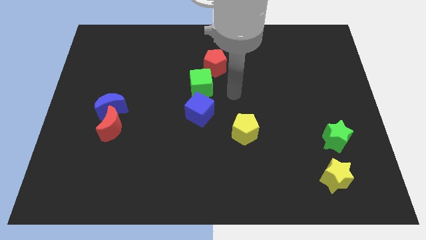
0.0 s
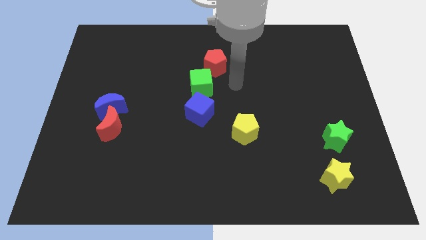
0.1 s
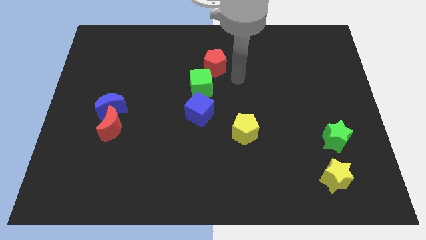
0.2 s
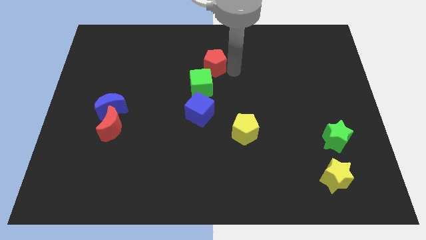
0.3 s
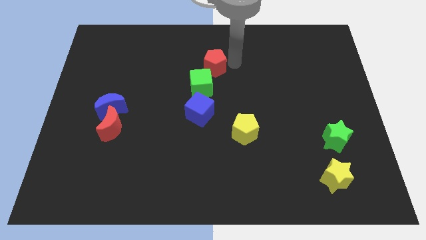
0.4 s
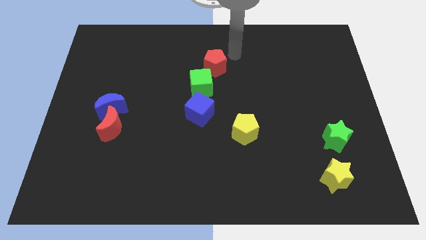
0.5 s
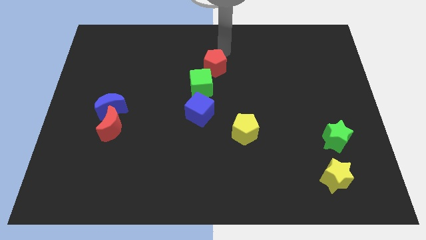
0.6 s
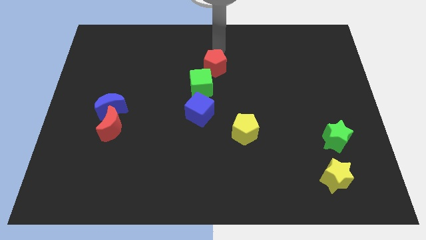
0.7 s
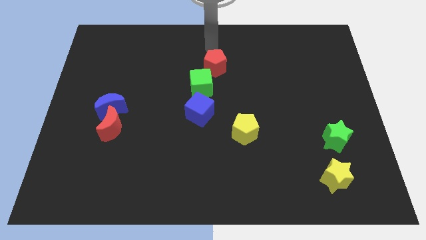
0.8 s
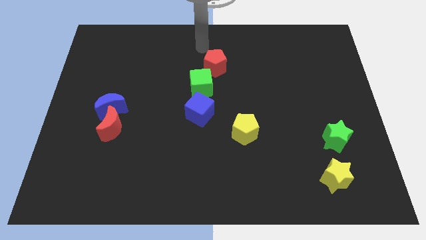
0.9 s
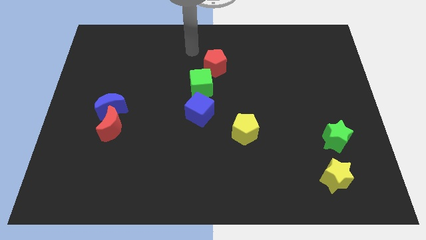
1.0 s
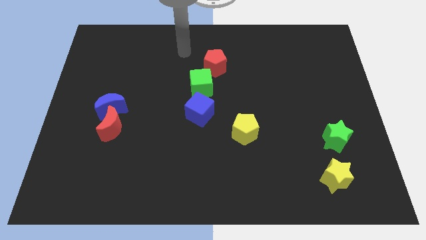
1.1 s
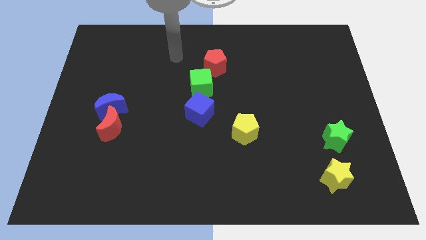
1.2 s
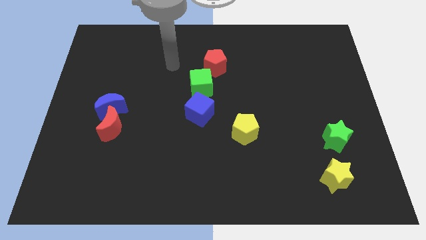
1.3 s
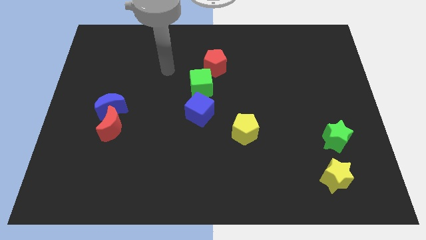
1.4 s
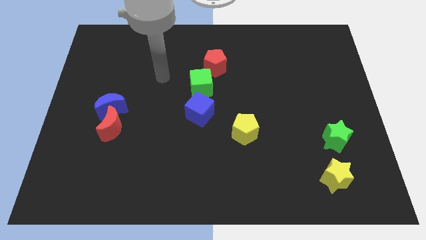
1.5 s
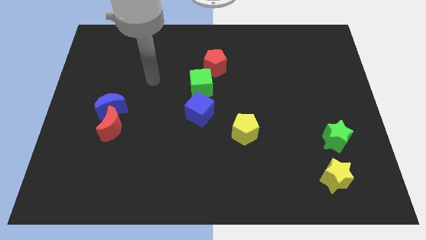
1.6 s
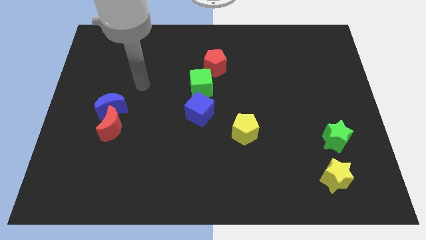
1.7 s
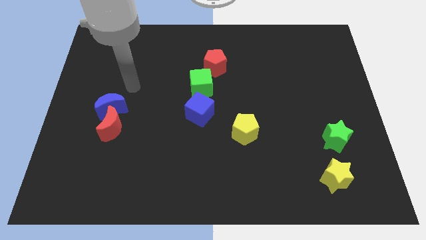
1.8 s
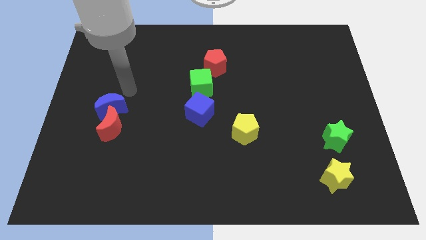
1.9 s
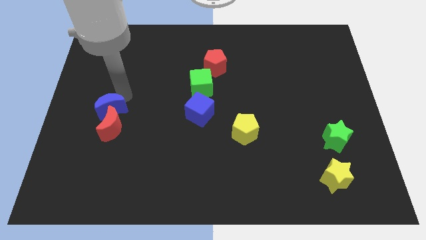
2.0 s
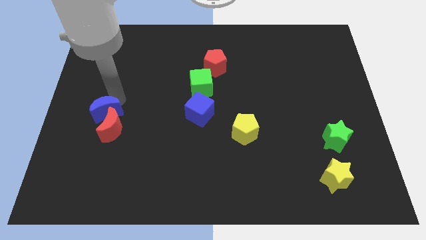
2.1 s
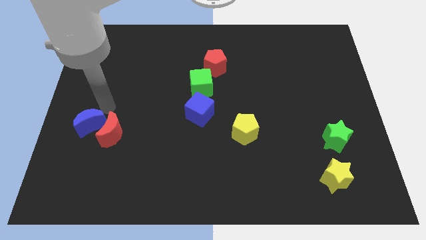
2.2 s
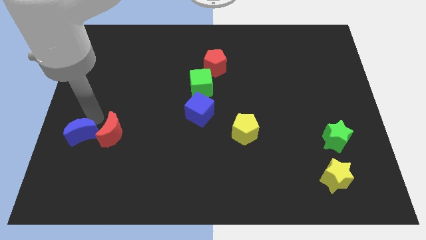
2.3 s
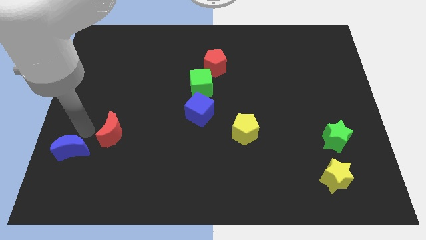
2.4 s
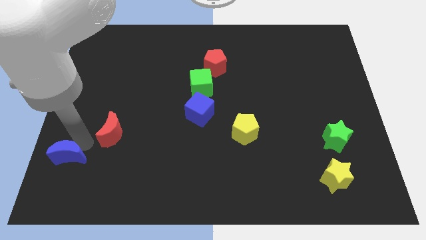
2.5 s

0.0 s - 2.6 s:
move the red moon away from the blue moon

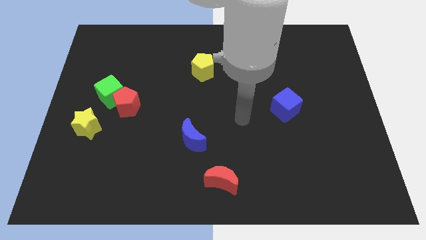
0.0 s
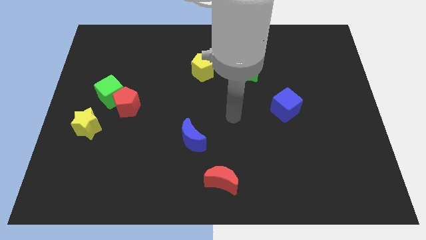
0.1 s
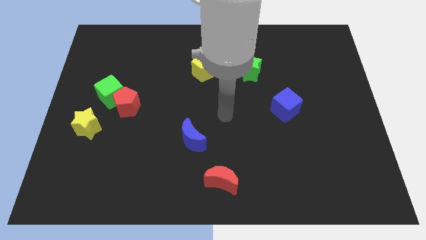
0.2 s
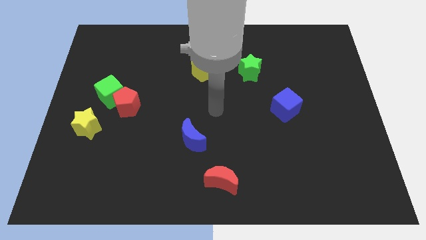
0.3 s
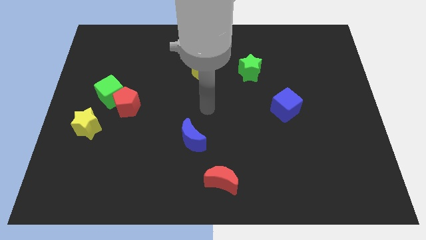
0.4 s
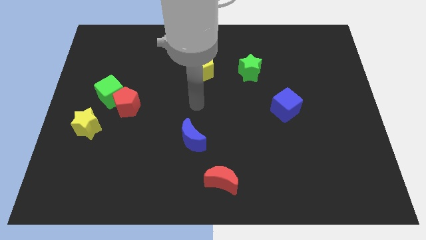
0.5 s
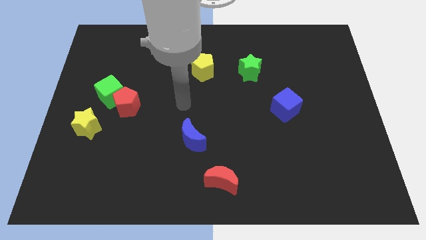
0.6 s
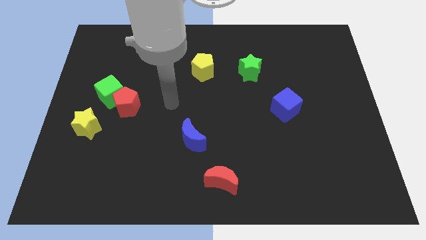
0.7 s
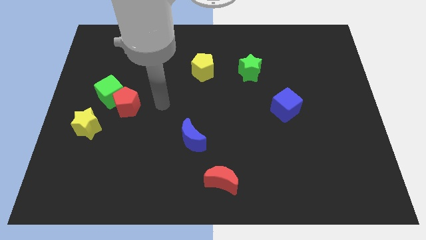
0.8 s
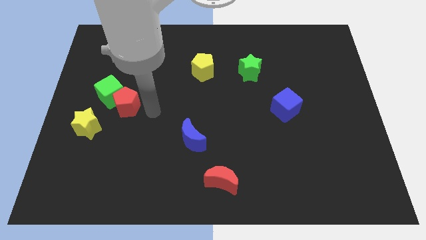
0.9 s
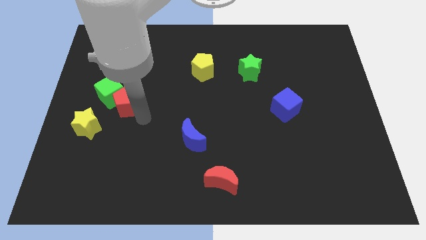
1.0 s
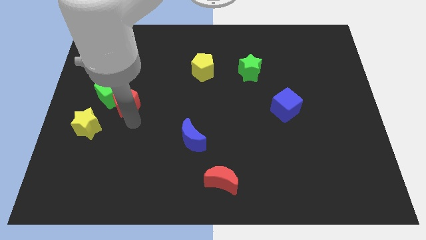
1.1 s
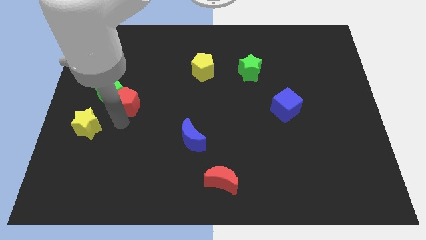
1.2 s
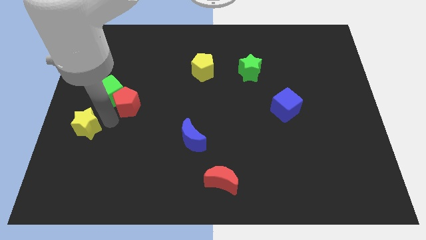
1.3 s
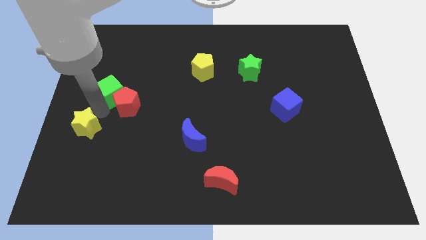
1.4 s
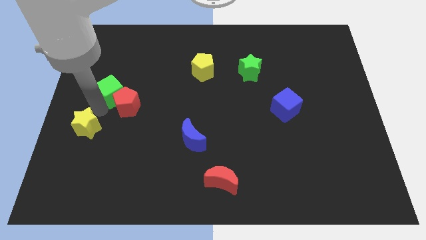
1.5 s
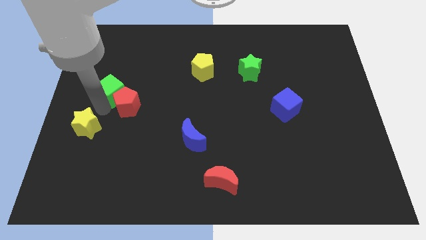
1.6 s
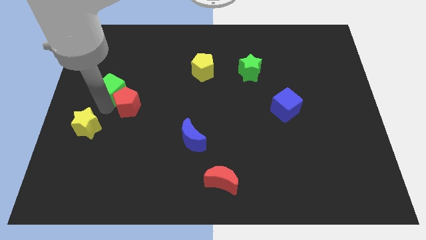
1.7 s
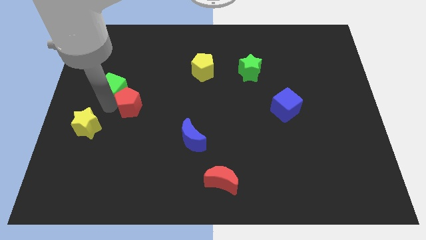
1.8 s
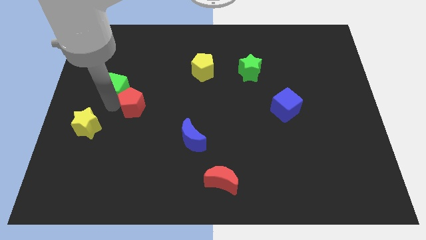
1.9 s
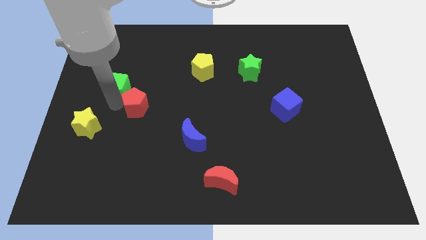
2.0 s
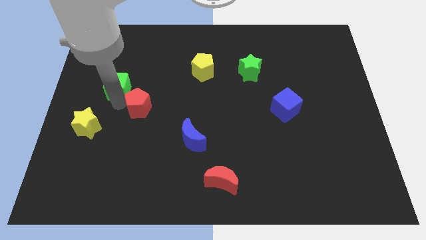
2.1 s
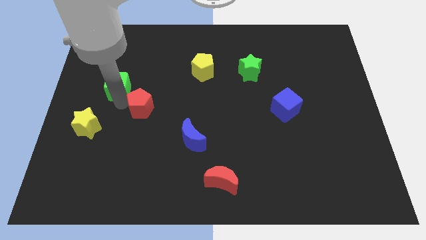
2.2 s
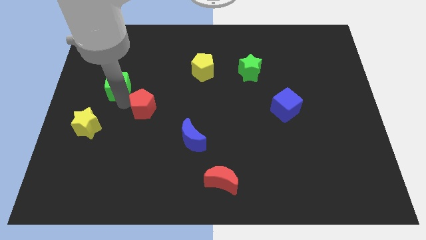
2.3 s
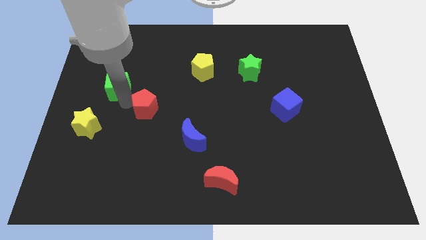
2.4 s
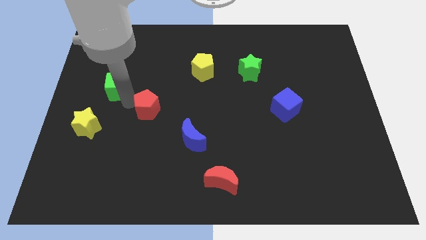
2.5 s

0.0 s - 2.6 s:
move the red pentagon away from the green cube and yellow star

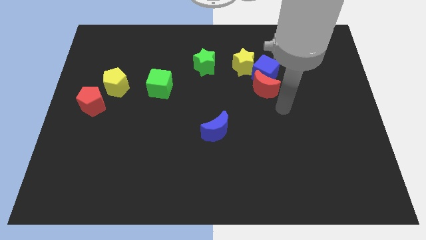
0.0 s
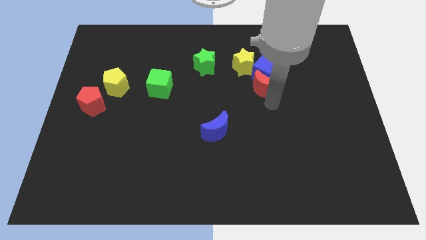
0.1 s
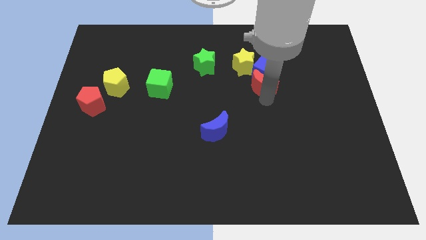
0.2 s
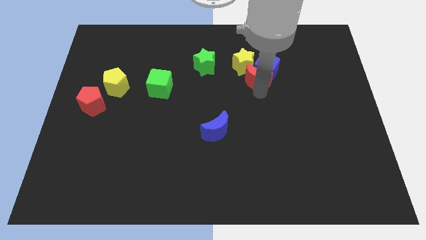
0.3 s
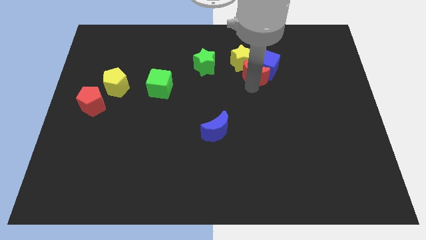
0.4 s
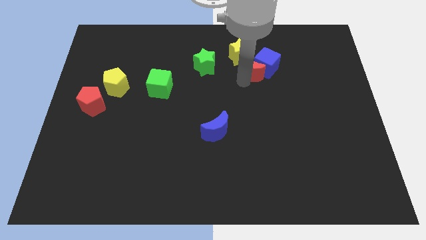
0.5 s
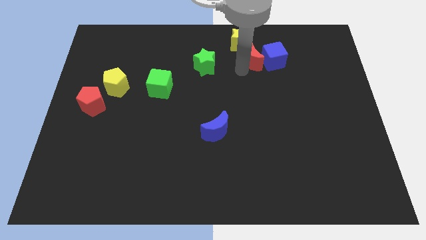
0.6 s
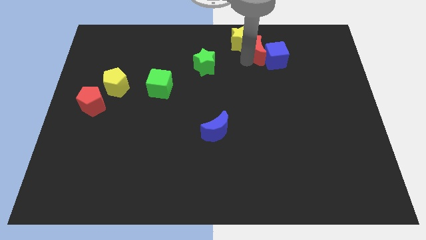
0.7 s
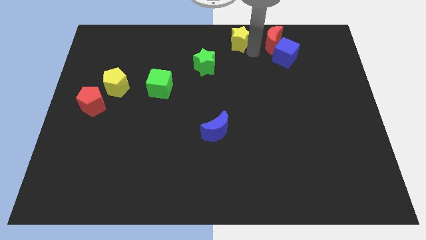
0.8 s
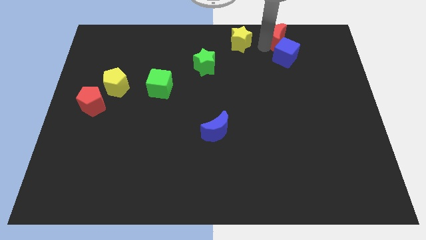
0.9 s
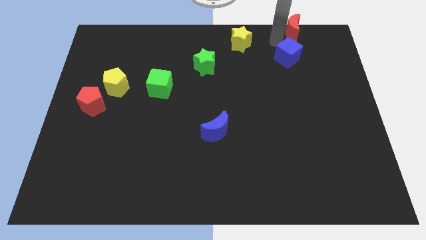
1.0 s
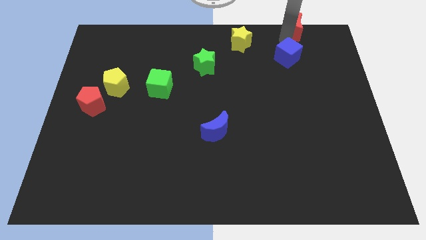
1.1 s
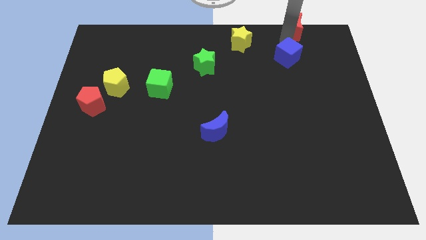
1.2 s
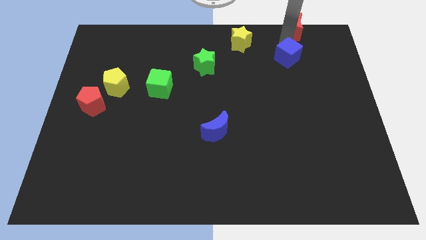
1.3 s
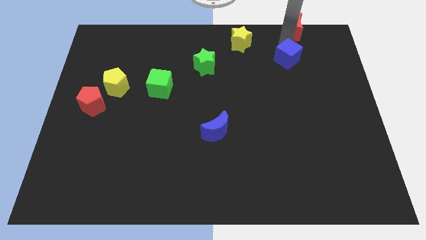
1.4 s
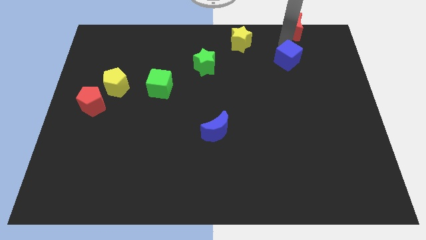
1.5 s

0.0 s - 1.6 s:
separate the blue cube from the red moon and yellow star

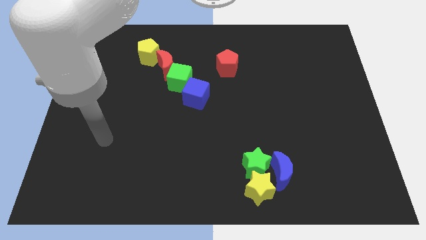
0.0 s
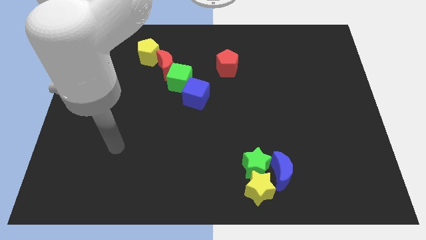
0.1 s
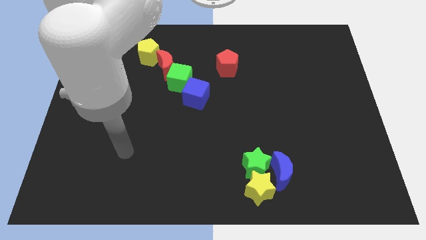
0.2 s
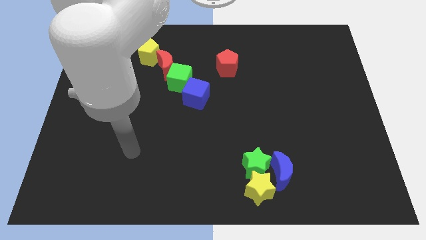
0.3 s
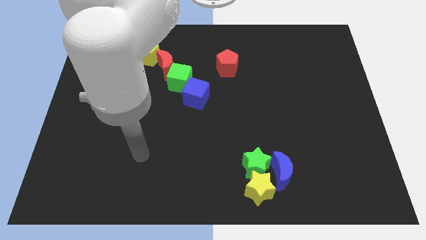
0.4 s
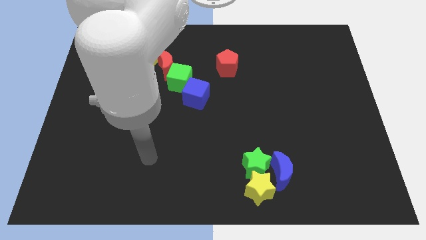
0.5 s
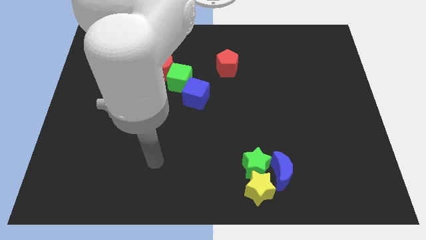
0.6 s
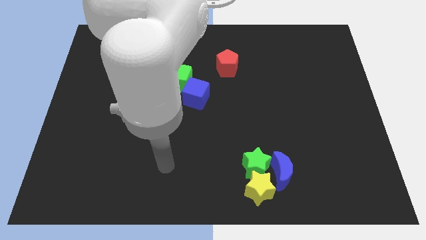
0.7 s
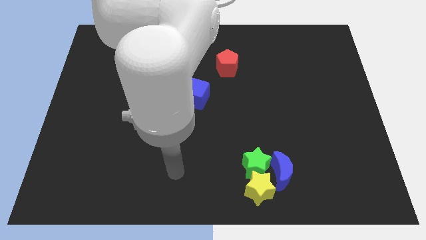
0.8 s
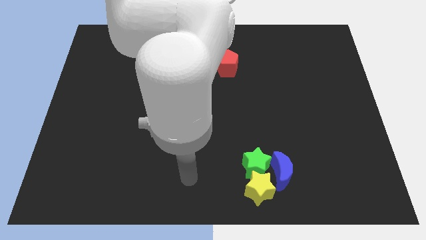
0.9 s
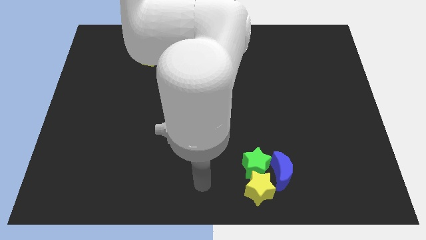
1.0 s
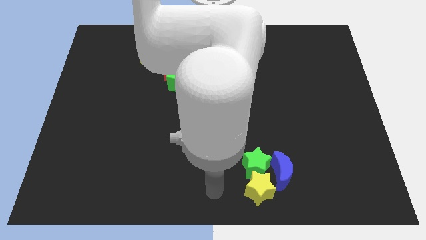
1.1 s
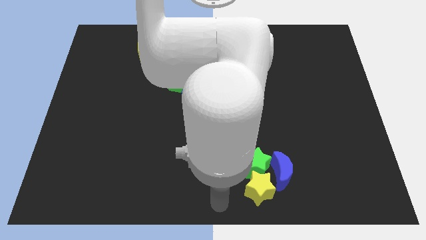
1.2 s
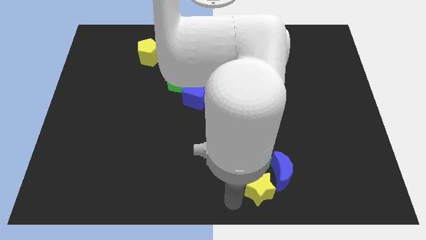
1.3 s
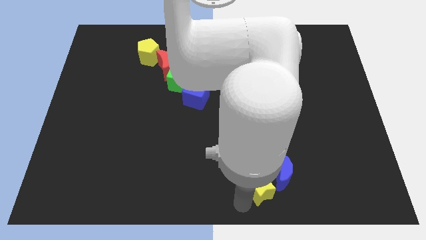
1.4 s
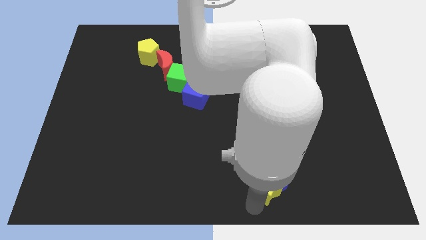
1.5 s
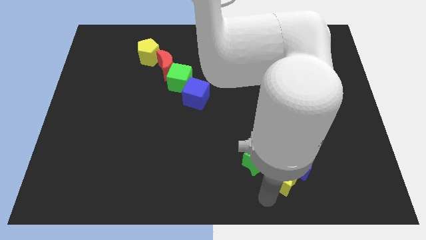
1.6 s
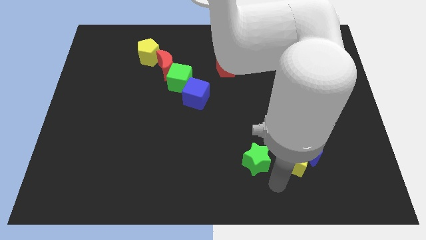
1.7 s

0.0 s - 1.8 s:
pull the green star apart from the yellow star and blue moon

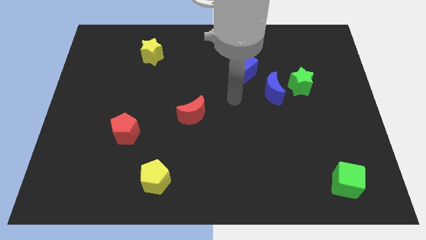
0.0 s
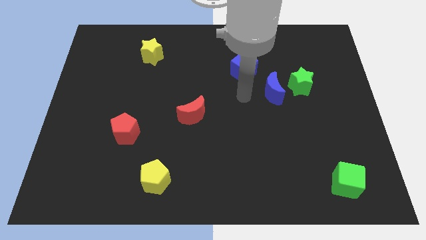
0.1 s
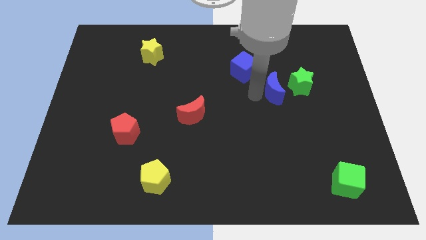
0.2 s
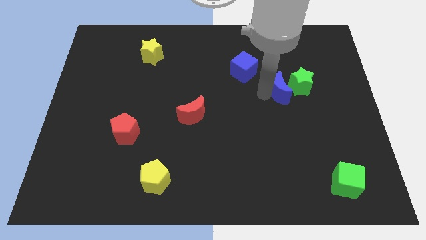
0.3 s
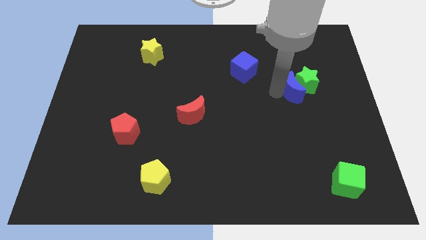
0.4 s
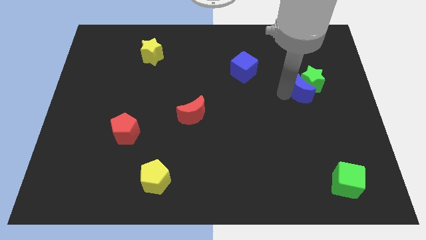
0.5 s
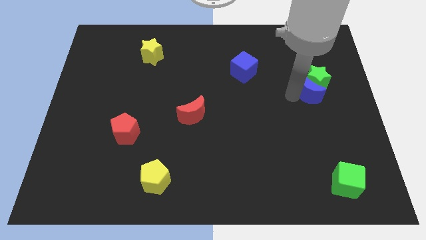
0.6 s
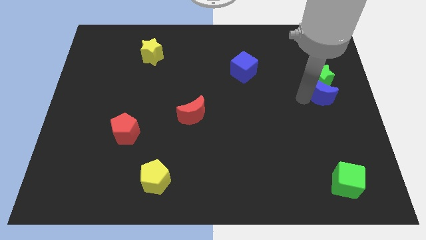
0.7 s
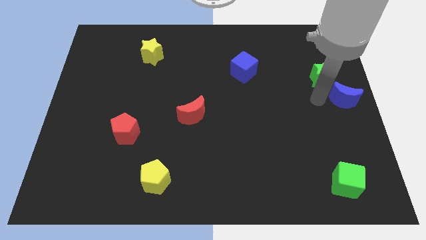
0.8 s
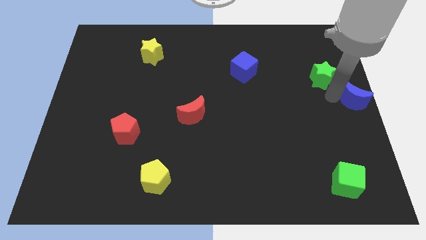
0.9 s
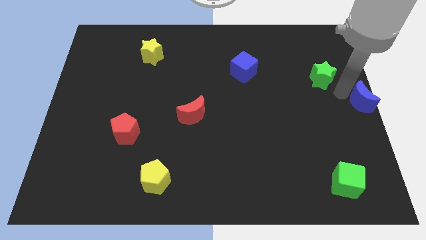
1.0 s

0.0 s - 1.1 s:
separate the green star from the blue moon
